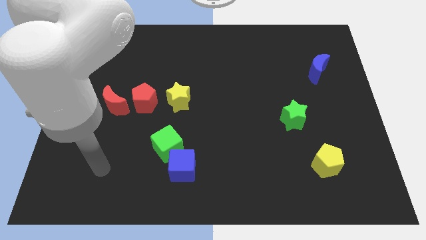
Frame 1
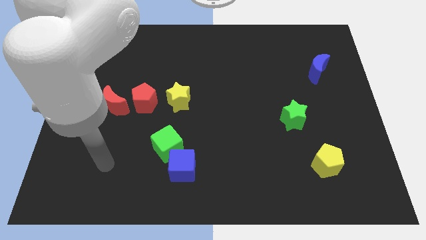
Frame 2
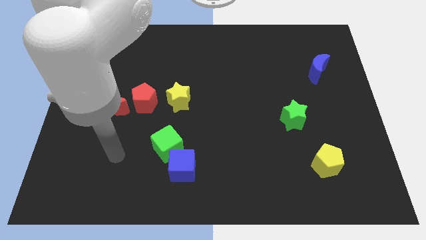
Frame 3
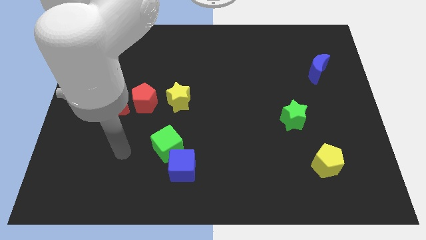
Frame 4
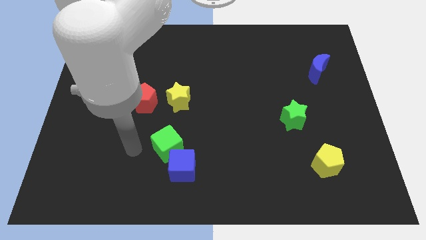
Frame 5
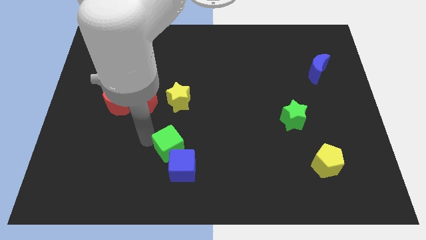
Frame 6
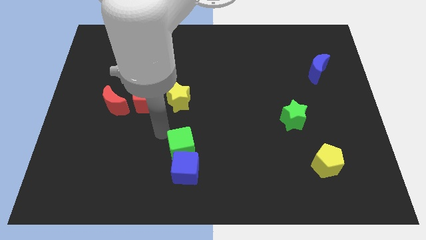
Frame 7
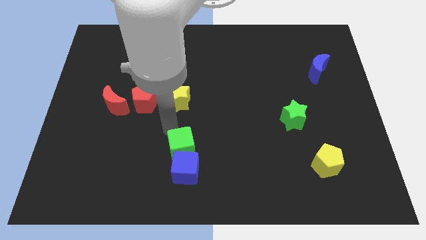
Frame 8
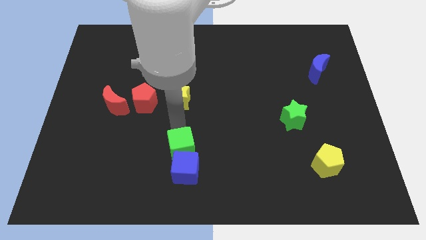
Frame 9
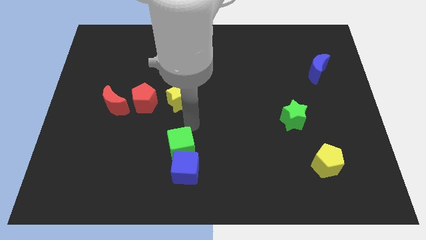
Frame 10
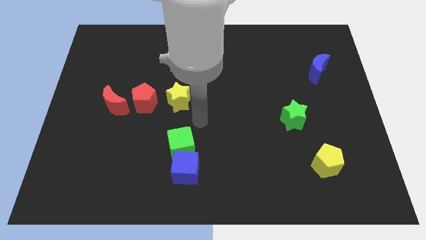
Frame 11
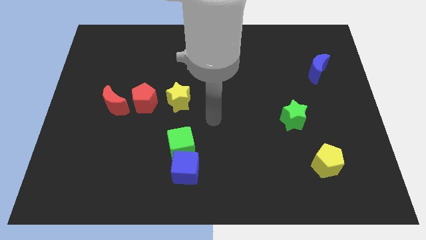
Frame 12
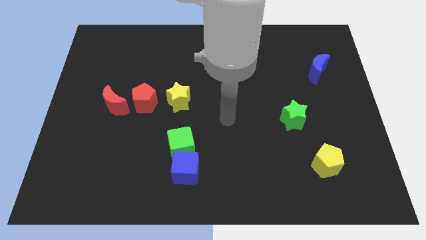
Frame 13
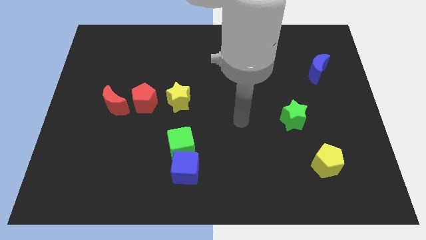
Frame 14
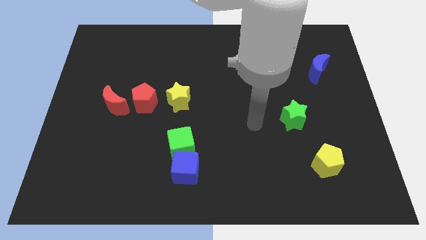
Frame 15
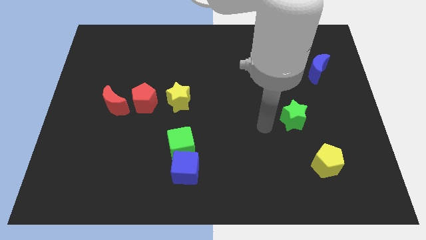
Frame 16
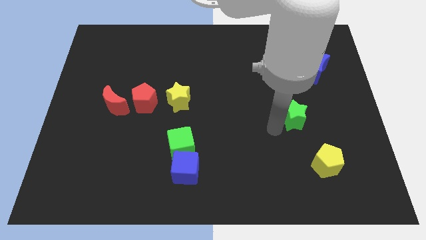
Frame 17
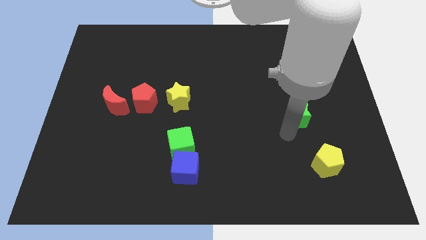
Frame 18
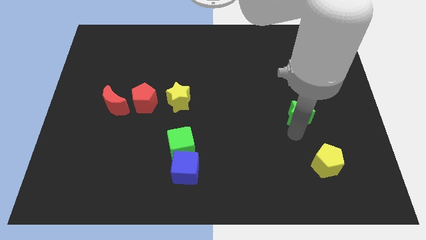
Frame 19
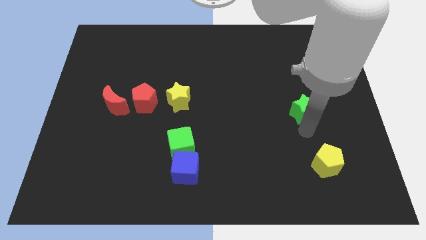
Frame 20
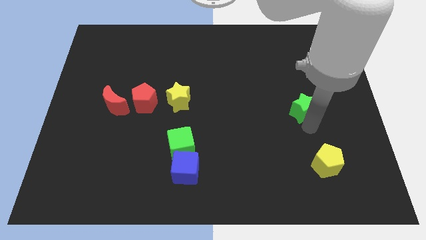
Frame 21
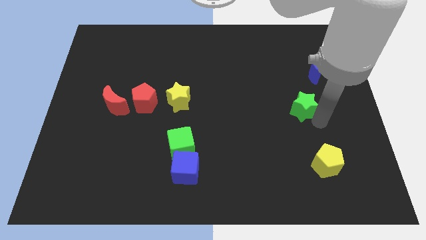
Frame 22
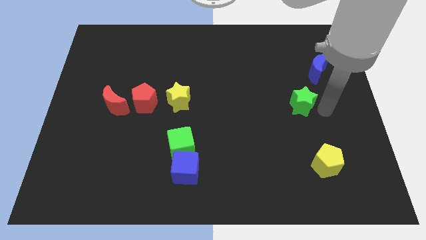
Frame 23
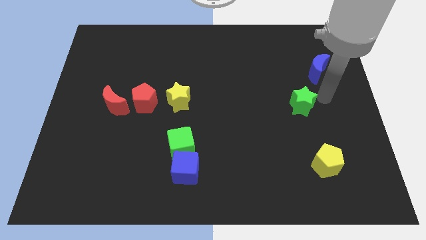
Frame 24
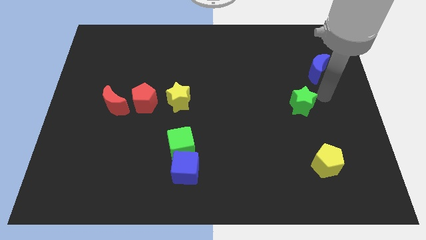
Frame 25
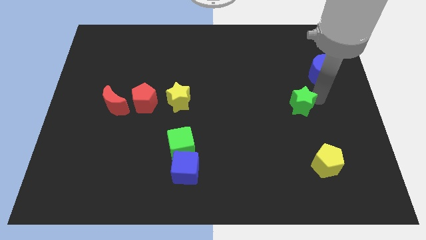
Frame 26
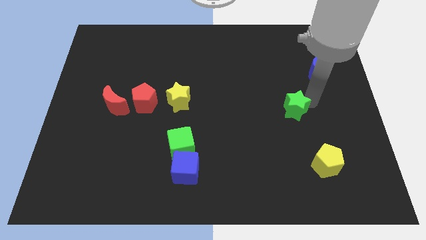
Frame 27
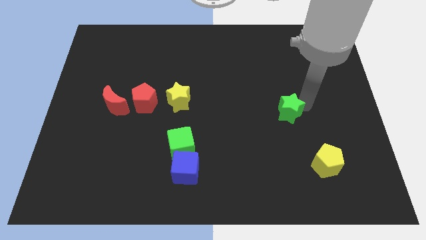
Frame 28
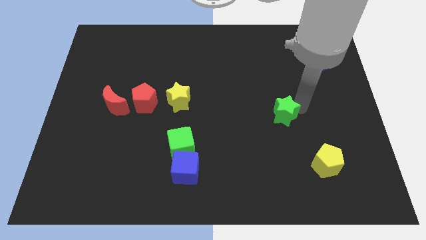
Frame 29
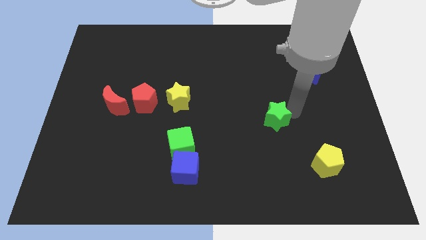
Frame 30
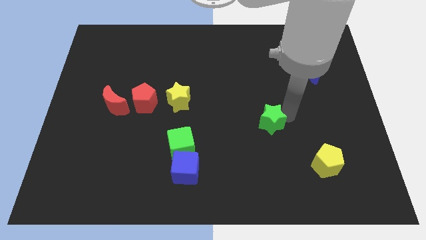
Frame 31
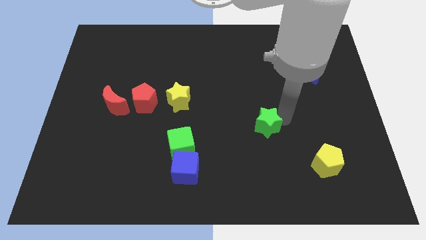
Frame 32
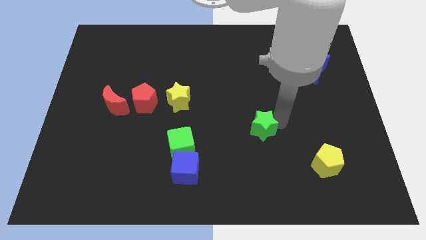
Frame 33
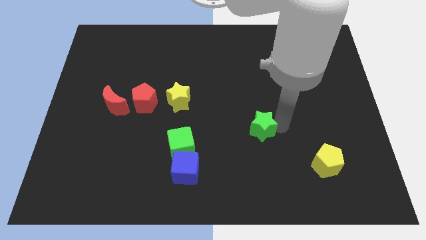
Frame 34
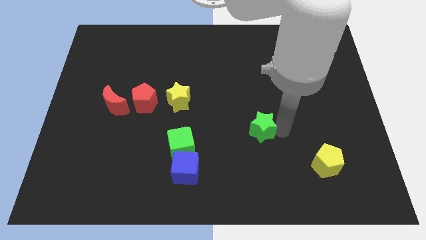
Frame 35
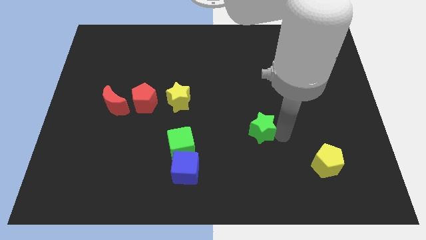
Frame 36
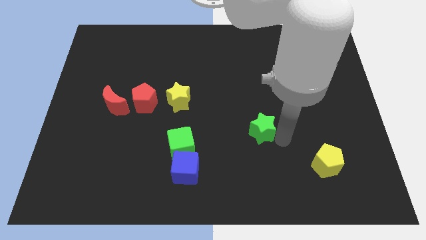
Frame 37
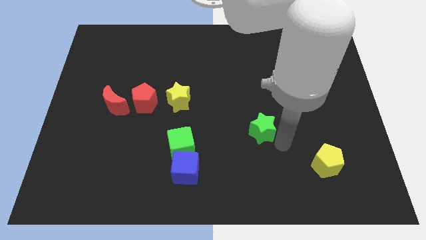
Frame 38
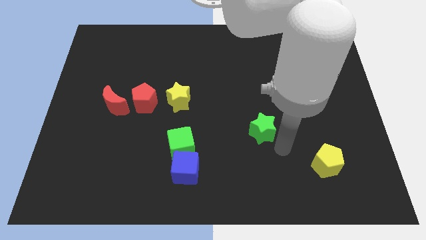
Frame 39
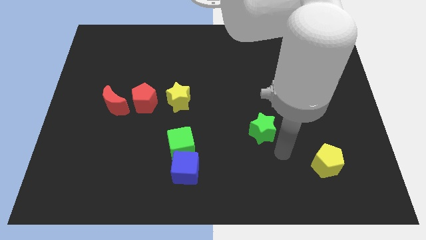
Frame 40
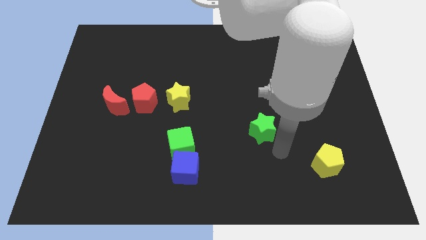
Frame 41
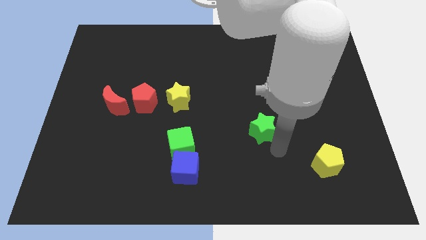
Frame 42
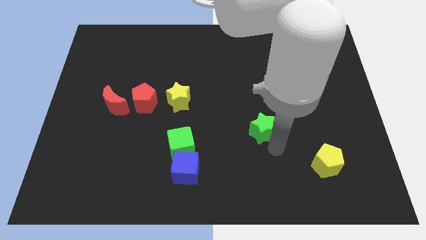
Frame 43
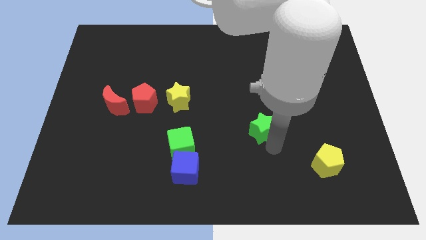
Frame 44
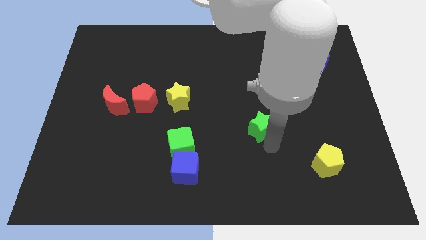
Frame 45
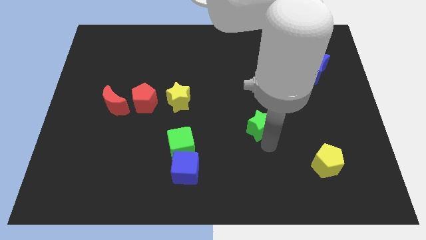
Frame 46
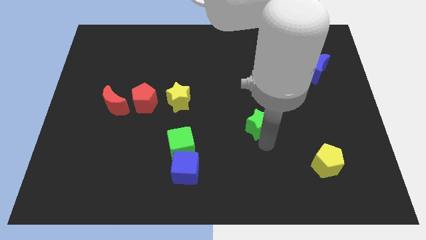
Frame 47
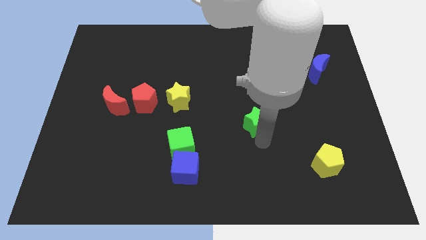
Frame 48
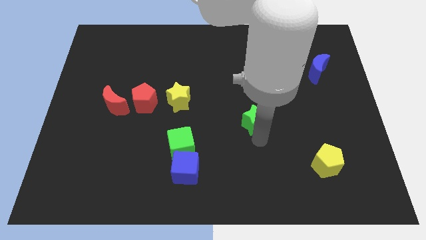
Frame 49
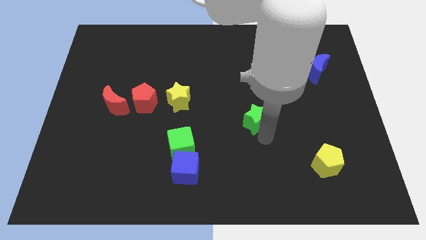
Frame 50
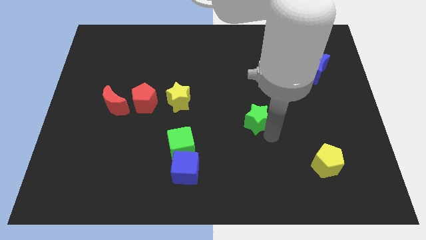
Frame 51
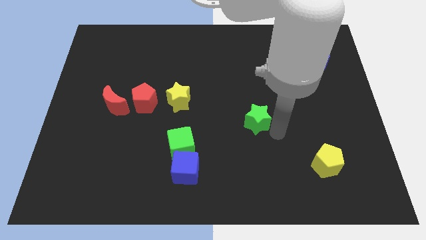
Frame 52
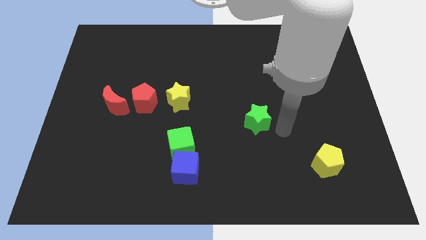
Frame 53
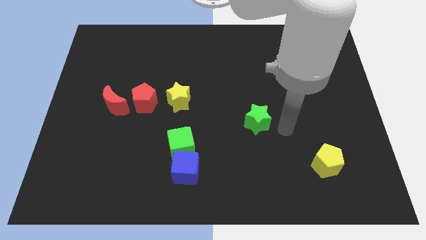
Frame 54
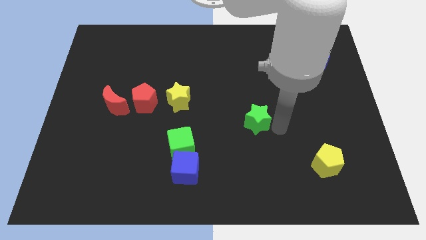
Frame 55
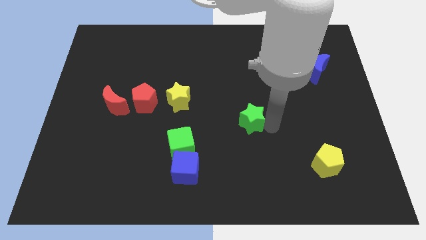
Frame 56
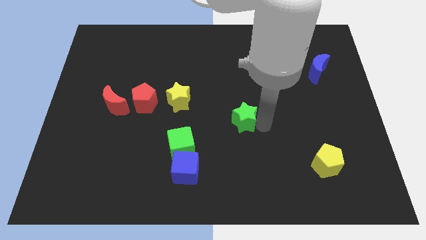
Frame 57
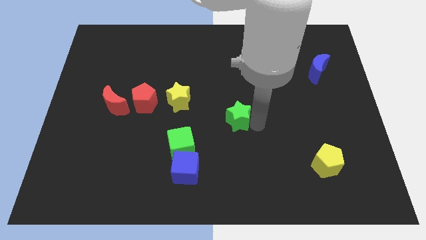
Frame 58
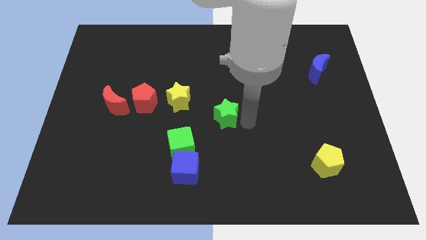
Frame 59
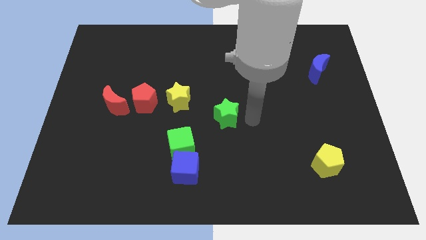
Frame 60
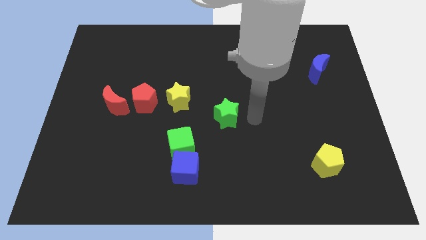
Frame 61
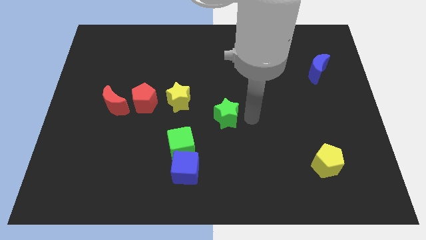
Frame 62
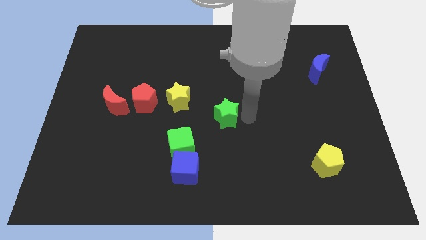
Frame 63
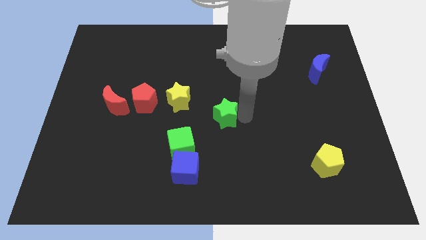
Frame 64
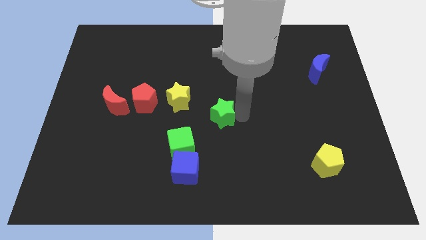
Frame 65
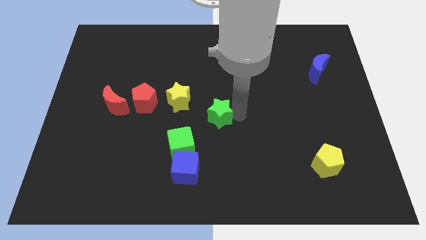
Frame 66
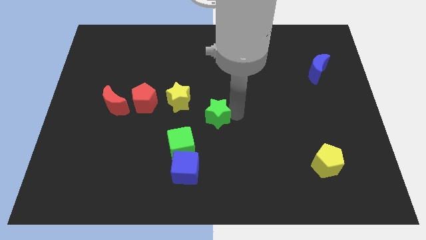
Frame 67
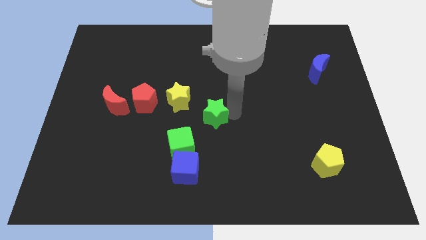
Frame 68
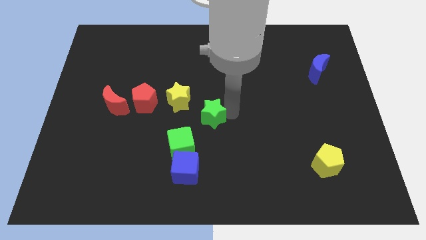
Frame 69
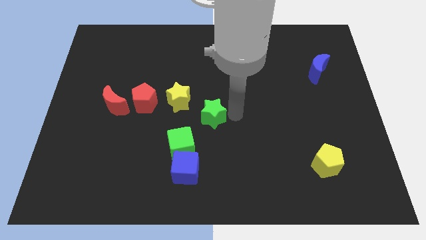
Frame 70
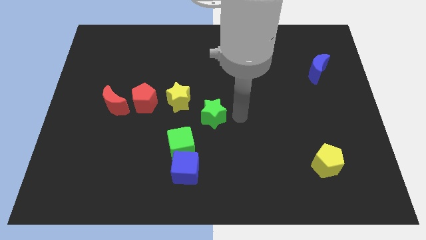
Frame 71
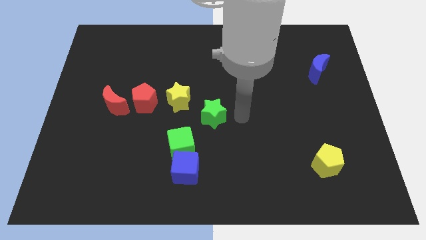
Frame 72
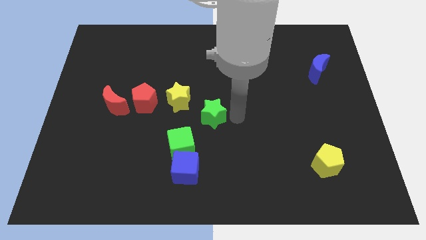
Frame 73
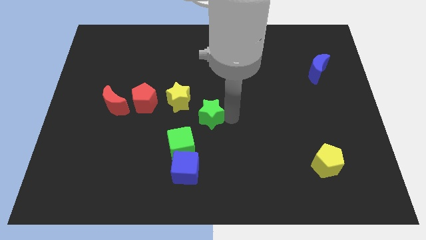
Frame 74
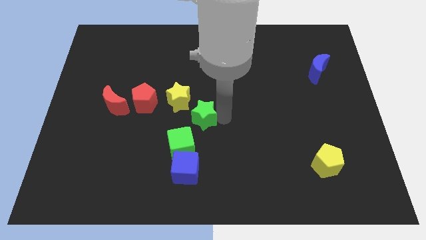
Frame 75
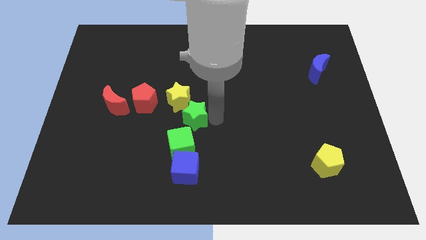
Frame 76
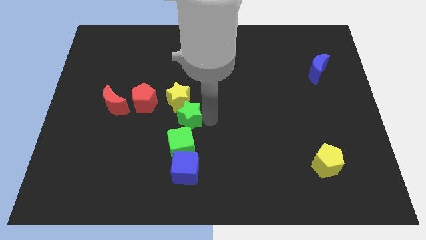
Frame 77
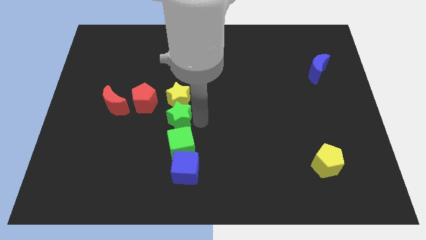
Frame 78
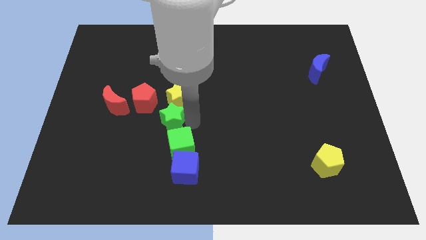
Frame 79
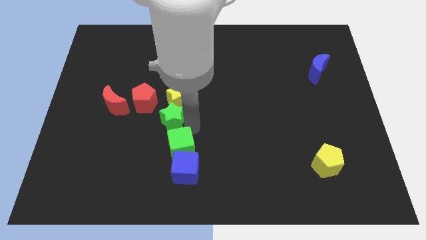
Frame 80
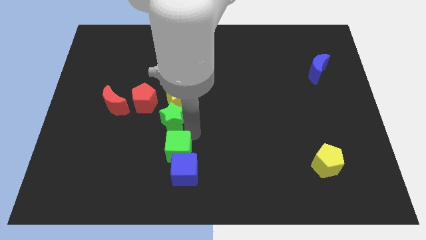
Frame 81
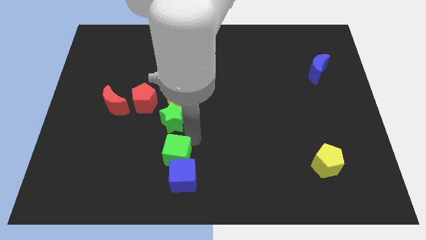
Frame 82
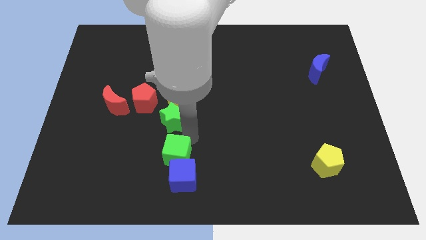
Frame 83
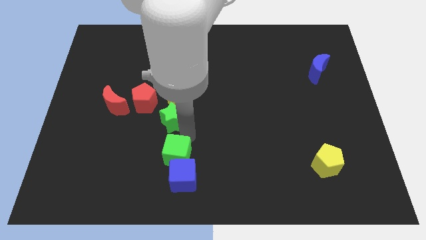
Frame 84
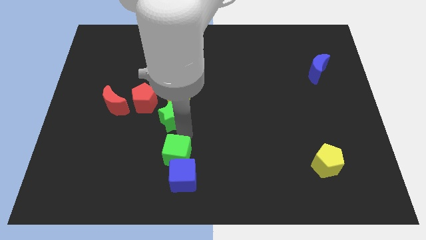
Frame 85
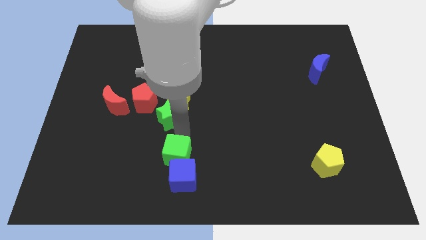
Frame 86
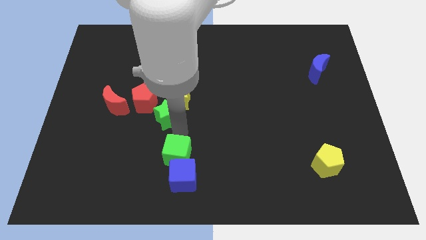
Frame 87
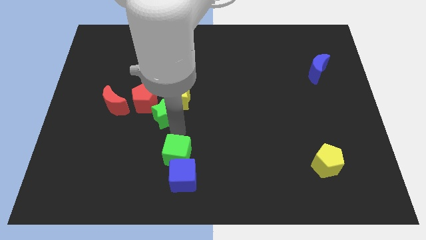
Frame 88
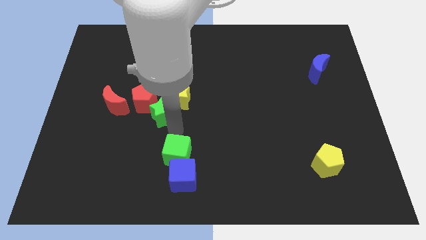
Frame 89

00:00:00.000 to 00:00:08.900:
slide the green star towards the red pentagon
